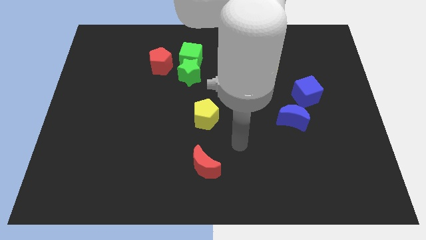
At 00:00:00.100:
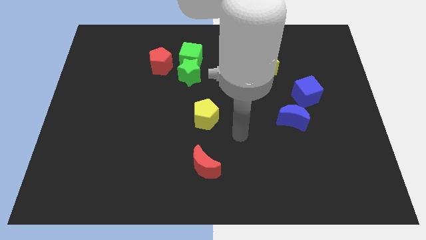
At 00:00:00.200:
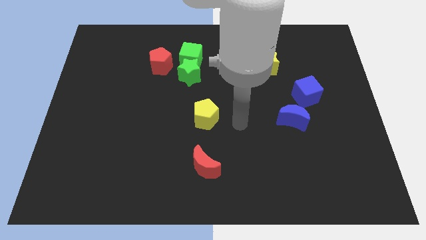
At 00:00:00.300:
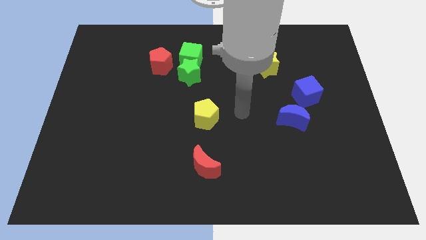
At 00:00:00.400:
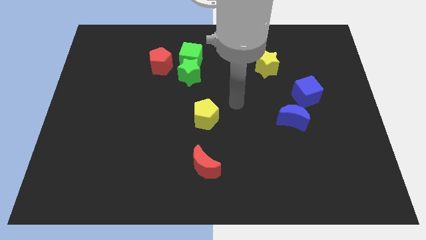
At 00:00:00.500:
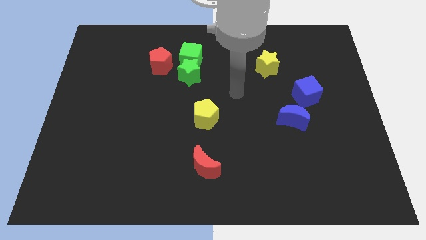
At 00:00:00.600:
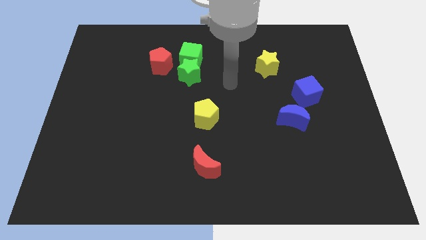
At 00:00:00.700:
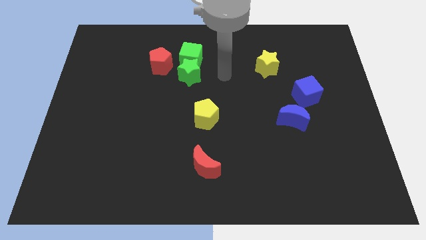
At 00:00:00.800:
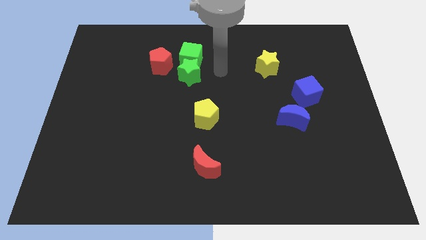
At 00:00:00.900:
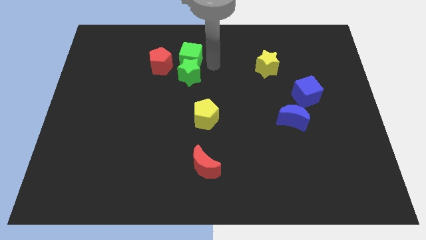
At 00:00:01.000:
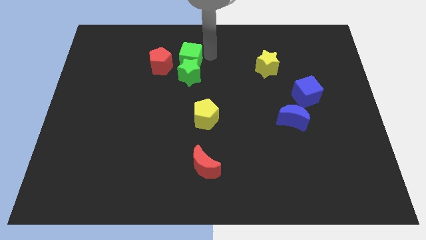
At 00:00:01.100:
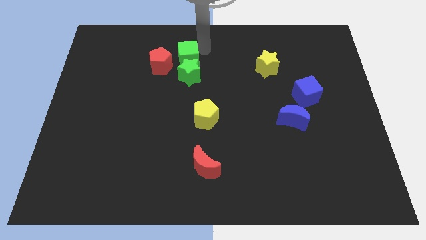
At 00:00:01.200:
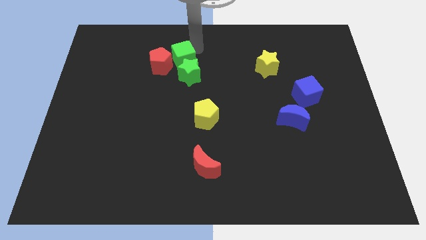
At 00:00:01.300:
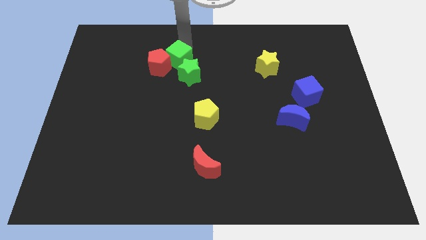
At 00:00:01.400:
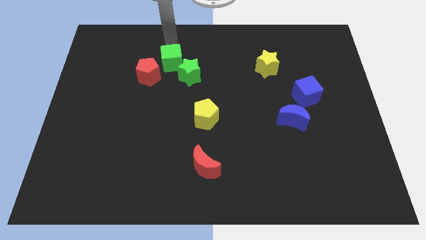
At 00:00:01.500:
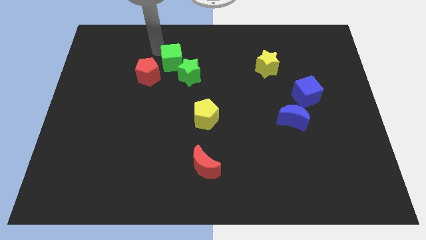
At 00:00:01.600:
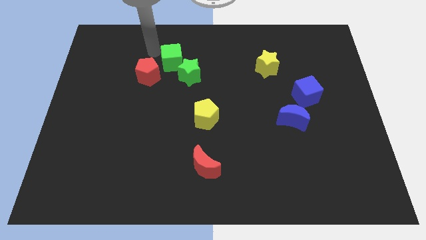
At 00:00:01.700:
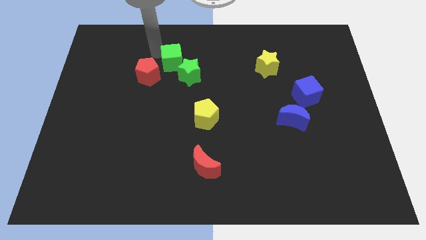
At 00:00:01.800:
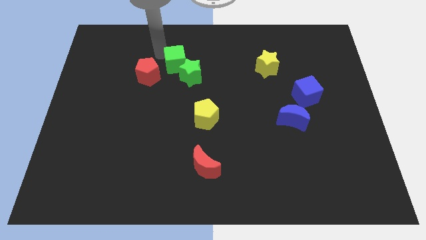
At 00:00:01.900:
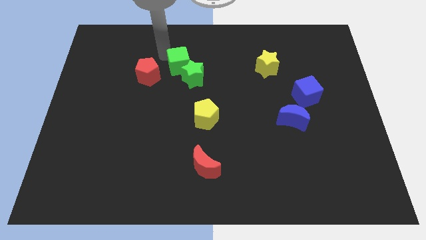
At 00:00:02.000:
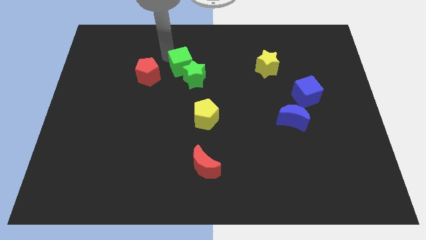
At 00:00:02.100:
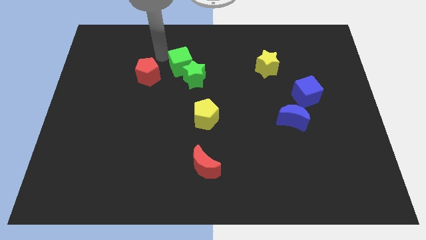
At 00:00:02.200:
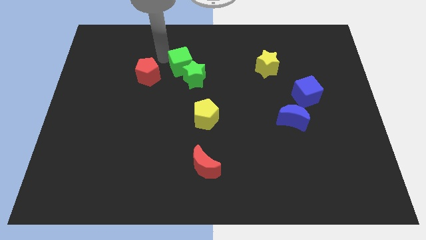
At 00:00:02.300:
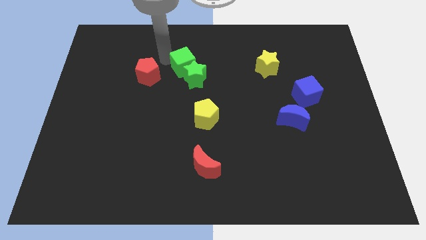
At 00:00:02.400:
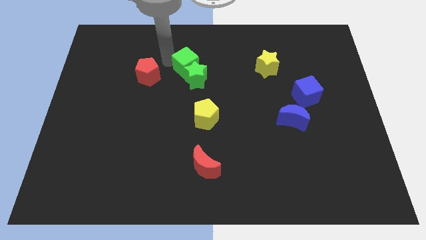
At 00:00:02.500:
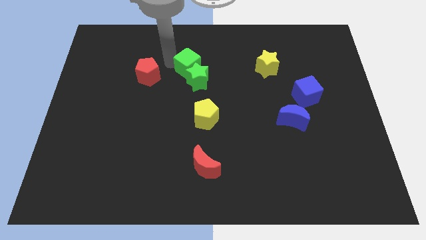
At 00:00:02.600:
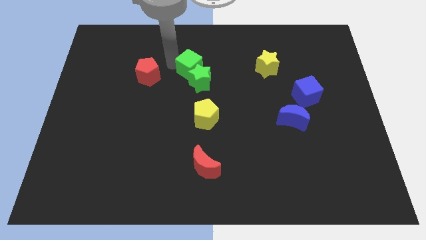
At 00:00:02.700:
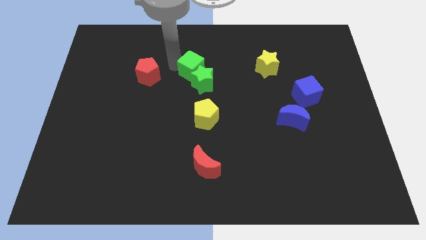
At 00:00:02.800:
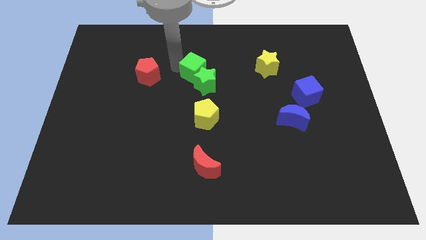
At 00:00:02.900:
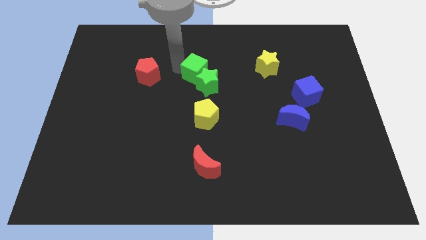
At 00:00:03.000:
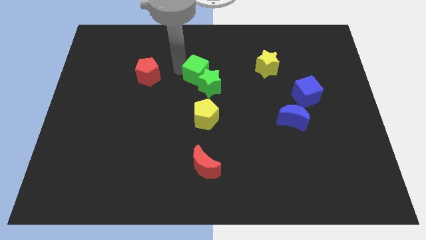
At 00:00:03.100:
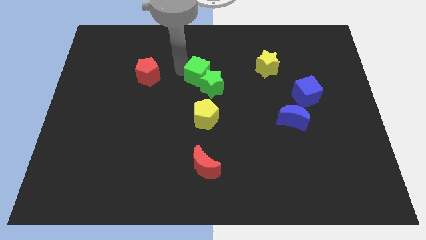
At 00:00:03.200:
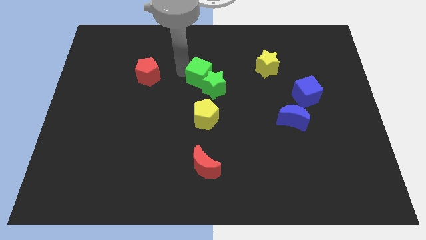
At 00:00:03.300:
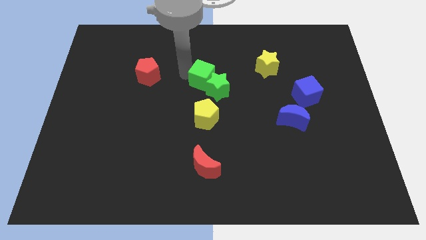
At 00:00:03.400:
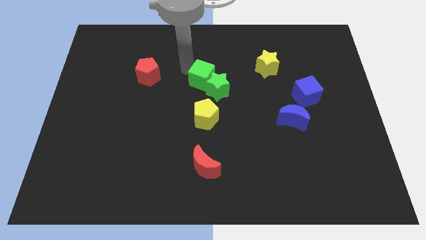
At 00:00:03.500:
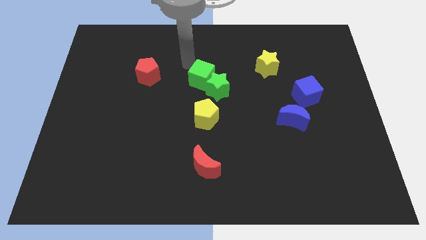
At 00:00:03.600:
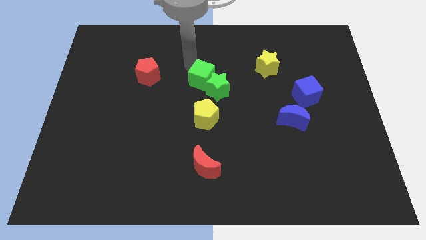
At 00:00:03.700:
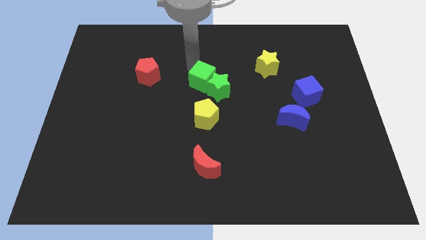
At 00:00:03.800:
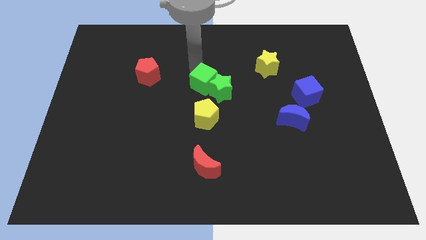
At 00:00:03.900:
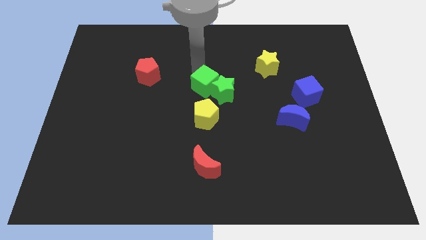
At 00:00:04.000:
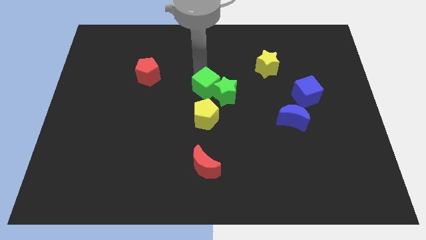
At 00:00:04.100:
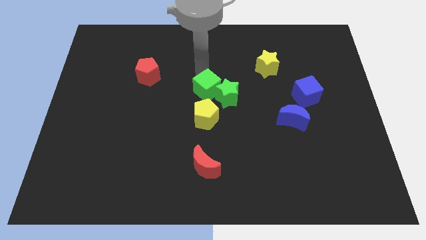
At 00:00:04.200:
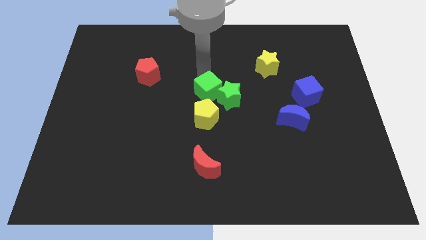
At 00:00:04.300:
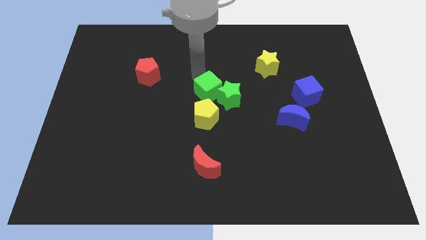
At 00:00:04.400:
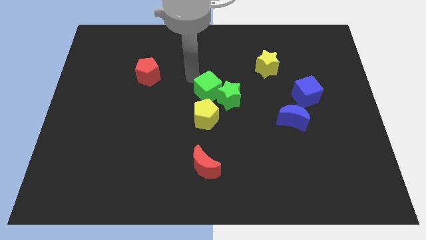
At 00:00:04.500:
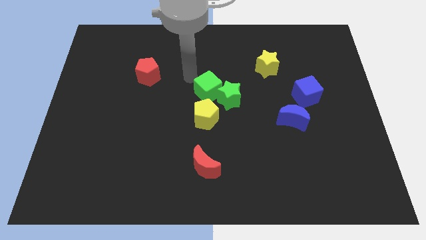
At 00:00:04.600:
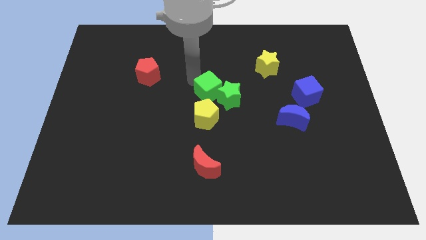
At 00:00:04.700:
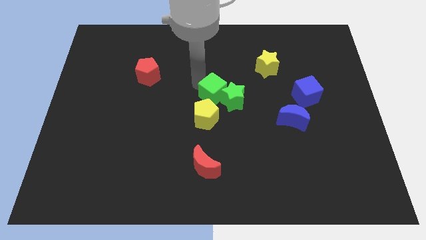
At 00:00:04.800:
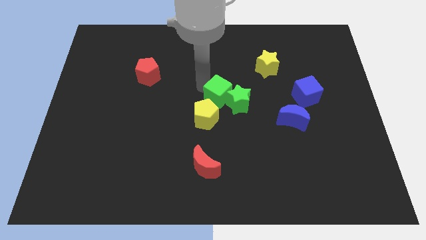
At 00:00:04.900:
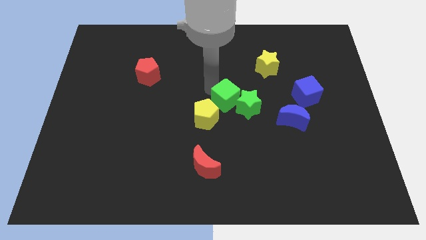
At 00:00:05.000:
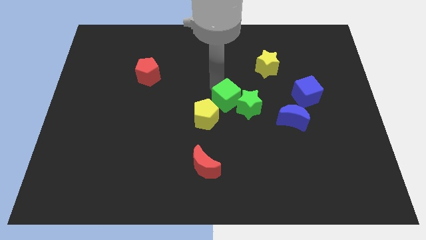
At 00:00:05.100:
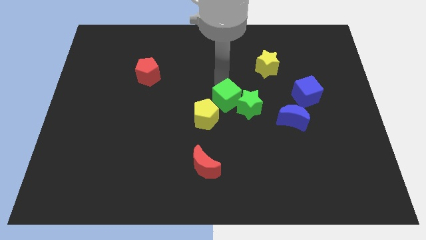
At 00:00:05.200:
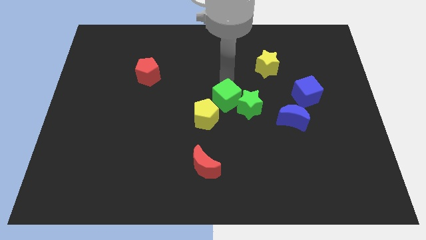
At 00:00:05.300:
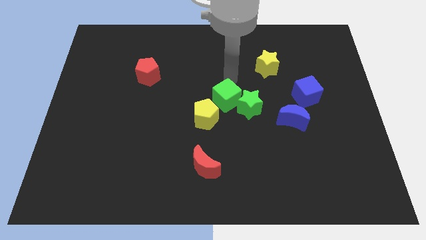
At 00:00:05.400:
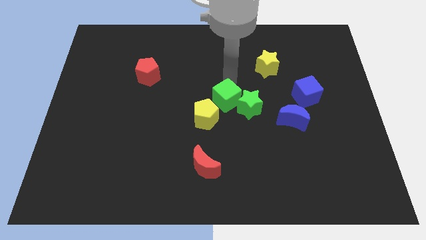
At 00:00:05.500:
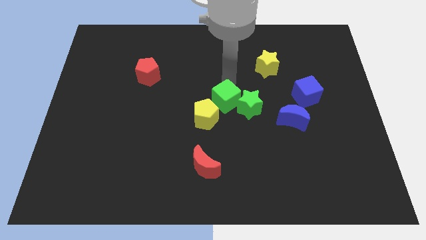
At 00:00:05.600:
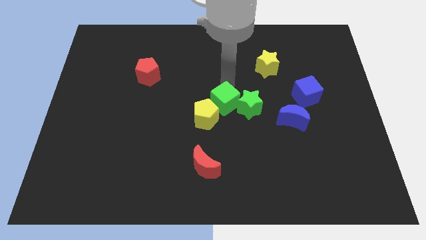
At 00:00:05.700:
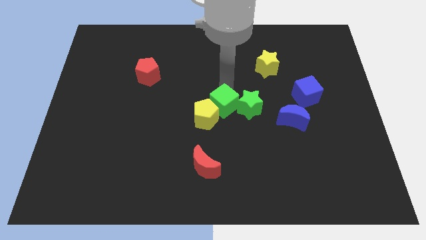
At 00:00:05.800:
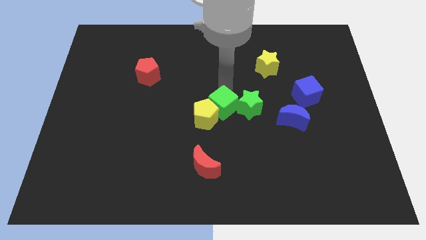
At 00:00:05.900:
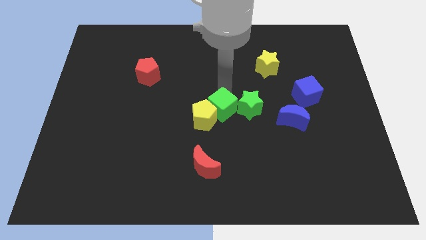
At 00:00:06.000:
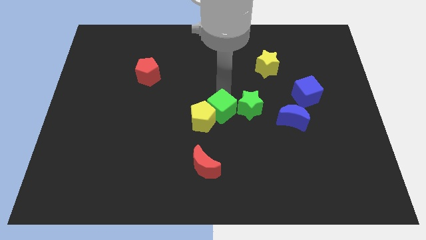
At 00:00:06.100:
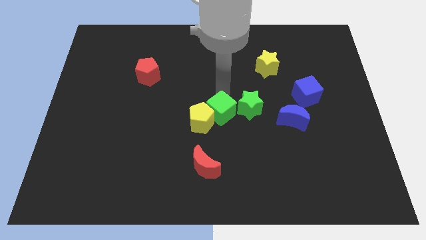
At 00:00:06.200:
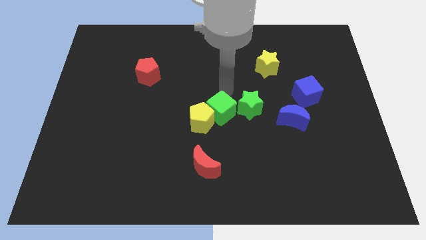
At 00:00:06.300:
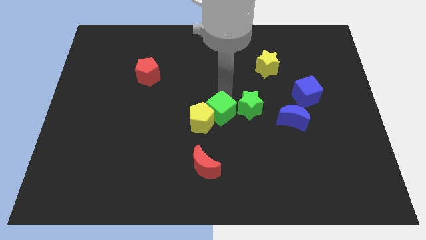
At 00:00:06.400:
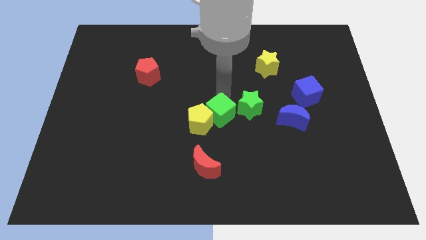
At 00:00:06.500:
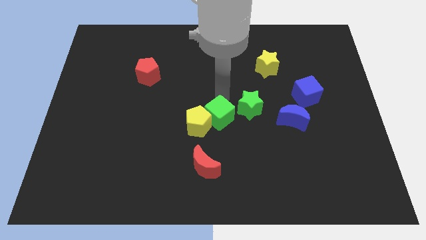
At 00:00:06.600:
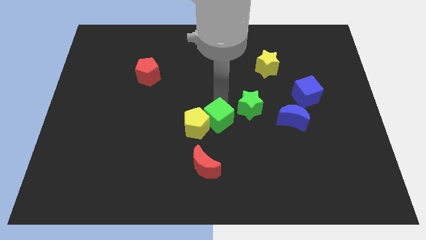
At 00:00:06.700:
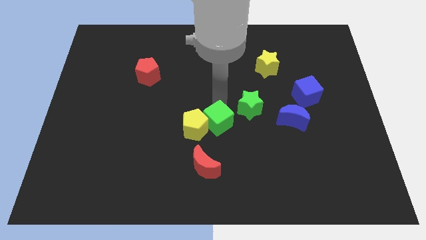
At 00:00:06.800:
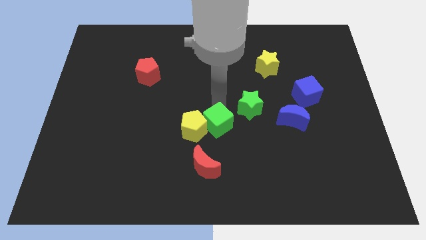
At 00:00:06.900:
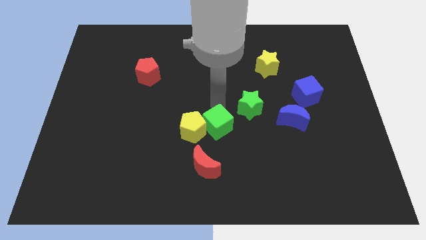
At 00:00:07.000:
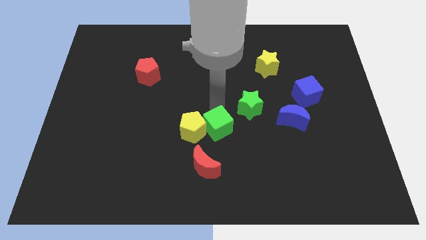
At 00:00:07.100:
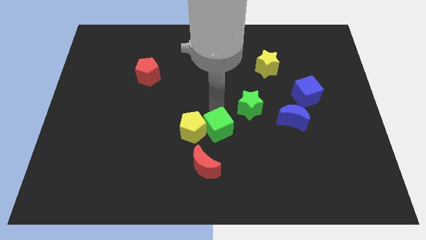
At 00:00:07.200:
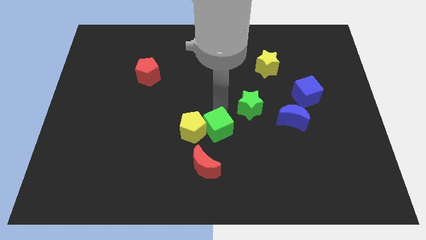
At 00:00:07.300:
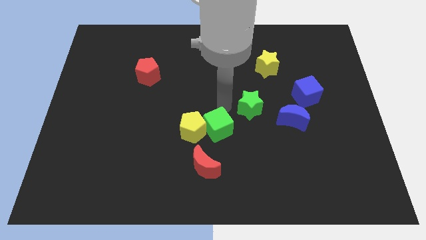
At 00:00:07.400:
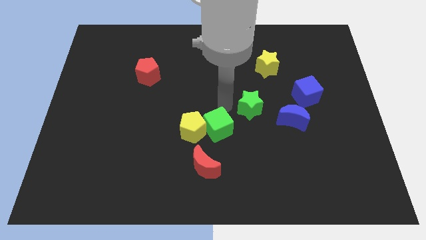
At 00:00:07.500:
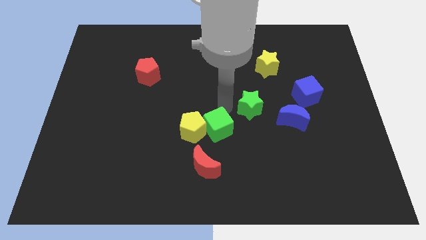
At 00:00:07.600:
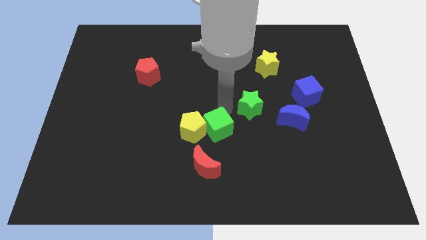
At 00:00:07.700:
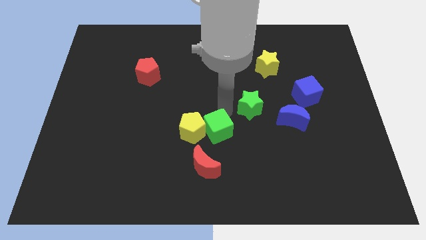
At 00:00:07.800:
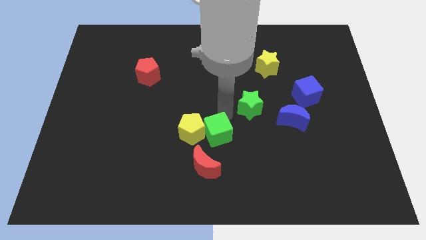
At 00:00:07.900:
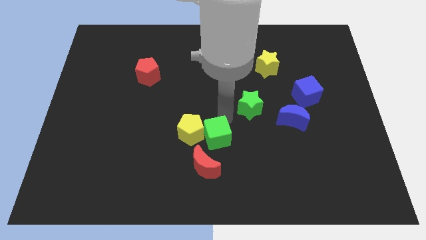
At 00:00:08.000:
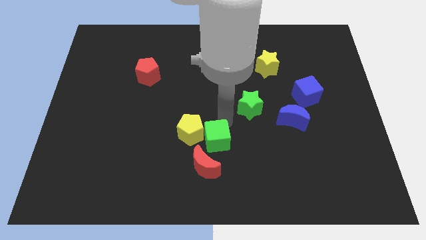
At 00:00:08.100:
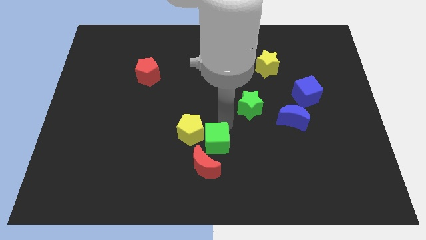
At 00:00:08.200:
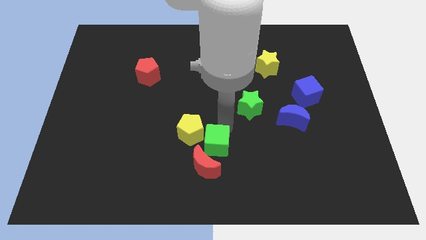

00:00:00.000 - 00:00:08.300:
push the green cube towards the red moon
